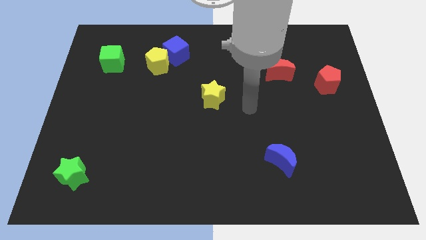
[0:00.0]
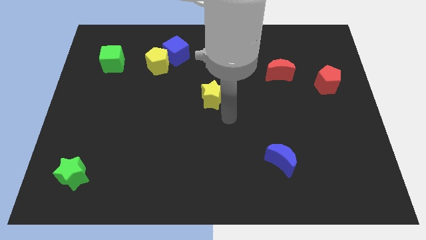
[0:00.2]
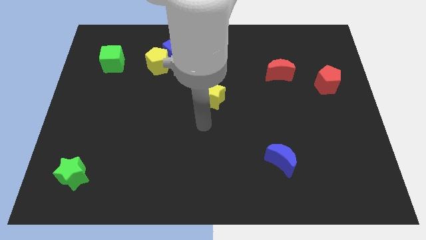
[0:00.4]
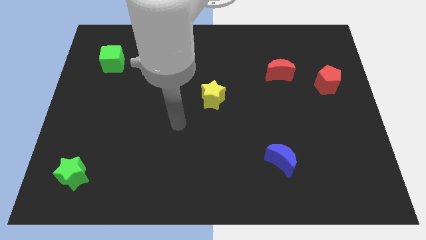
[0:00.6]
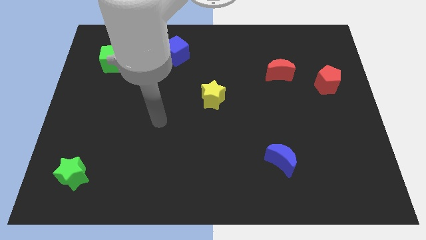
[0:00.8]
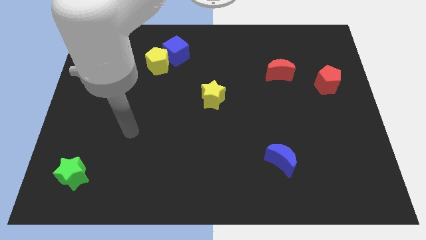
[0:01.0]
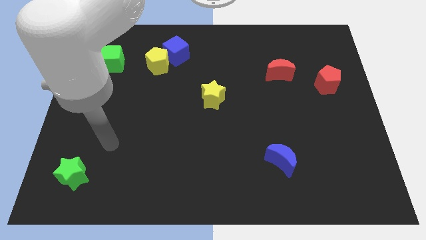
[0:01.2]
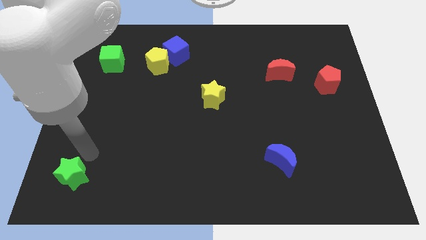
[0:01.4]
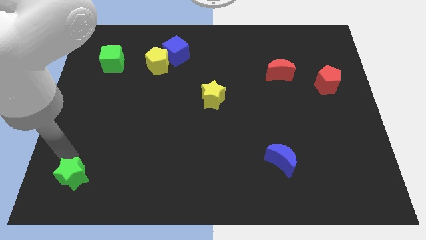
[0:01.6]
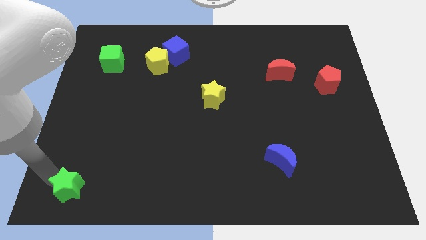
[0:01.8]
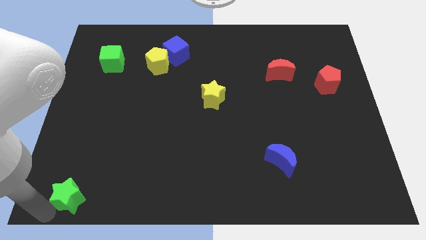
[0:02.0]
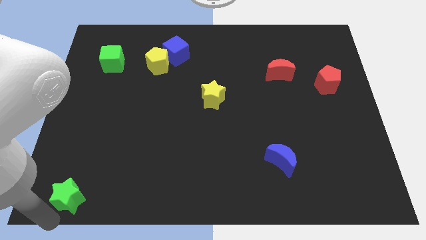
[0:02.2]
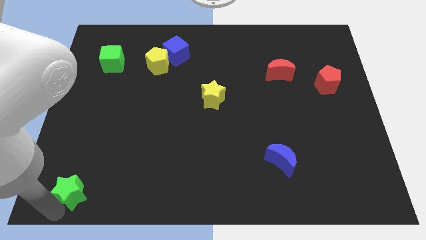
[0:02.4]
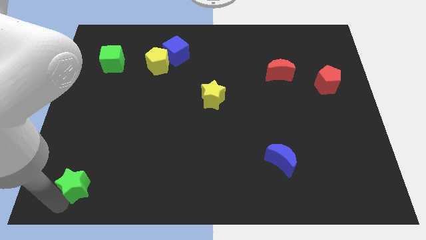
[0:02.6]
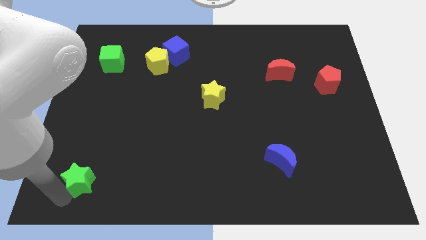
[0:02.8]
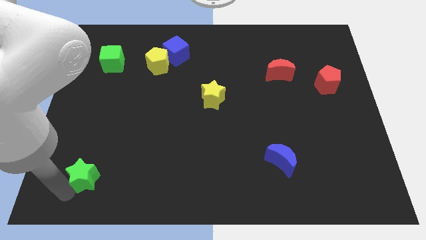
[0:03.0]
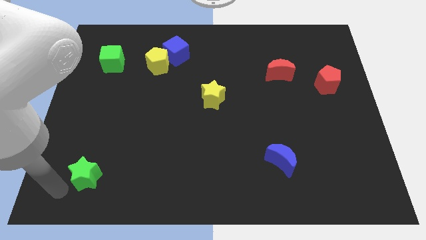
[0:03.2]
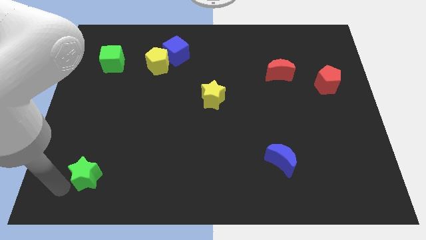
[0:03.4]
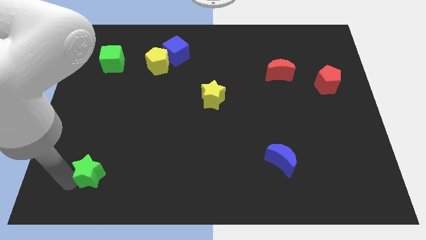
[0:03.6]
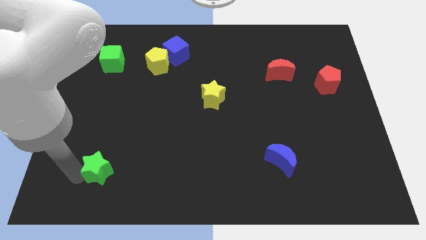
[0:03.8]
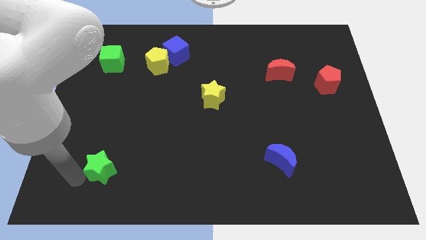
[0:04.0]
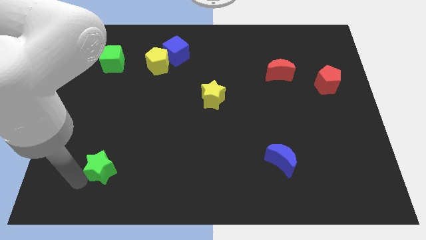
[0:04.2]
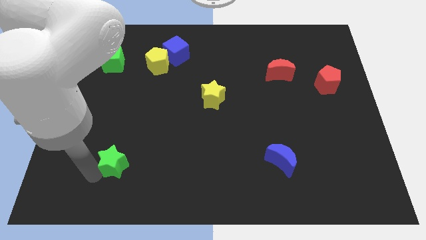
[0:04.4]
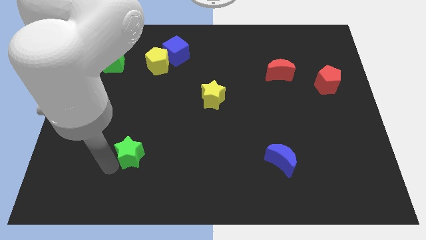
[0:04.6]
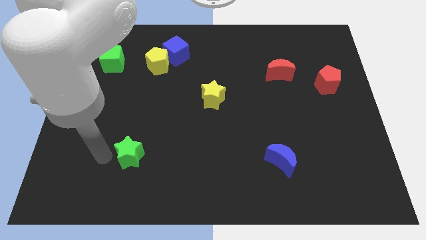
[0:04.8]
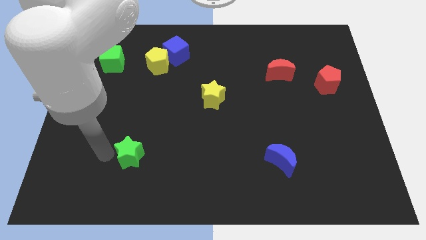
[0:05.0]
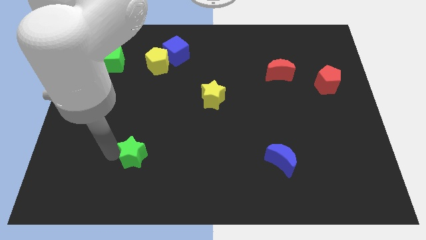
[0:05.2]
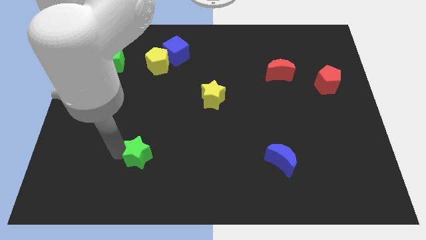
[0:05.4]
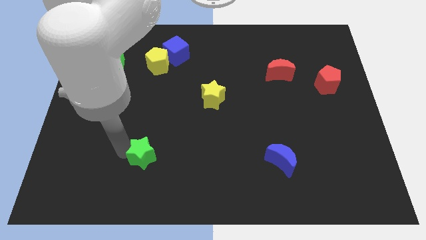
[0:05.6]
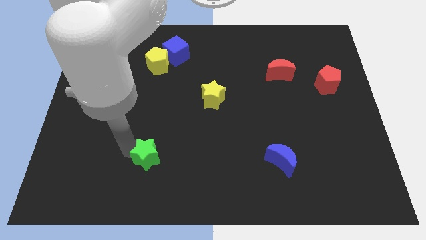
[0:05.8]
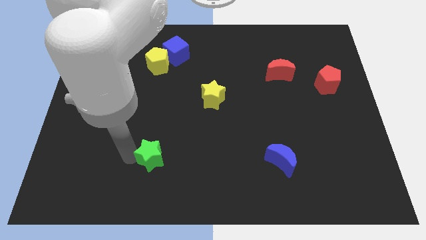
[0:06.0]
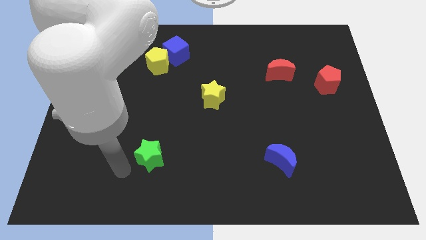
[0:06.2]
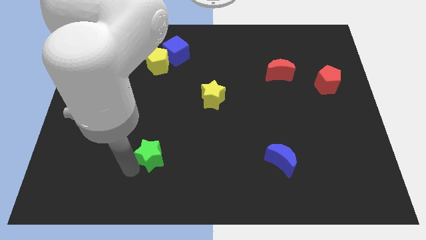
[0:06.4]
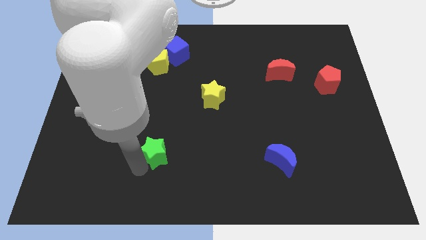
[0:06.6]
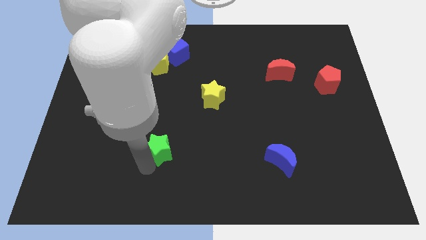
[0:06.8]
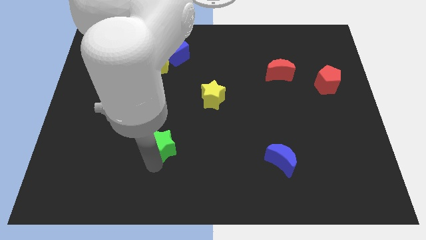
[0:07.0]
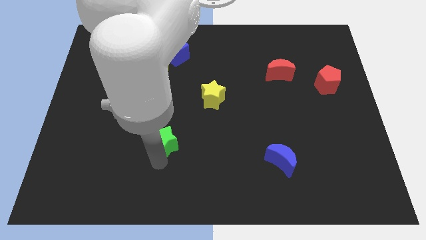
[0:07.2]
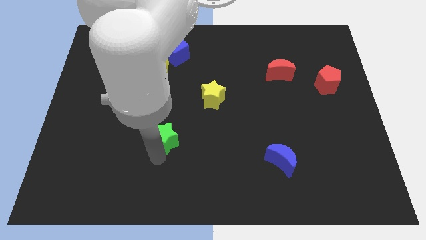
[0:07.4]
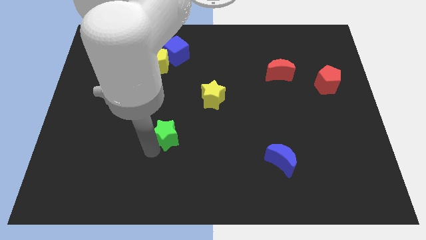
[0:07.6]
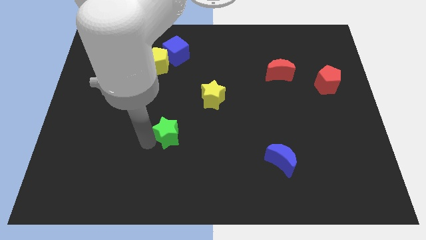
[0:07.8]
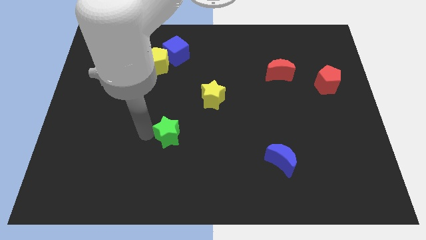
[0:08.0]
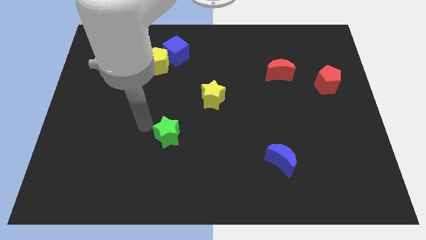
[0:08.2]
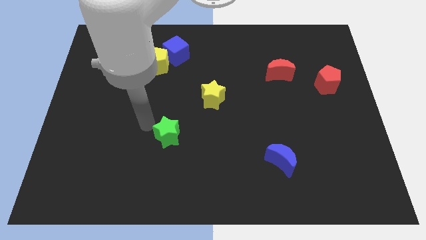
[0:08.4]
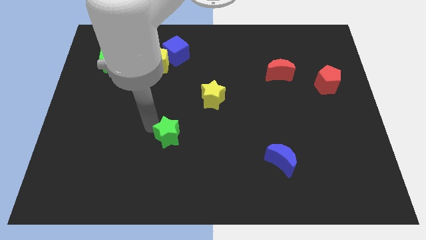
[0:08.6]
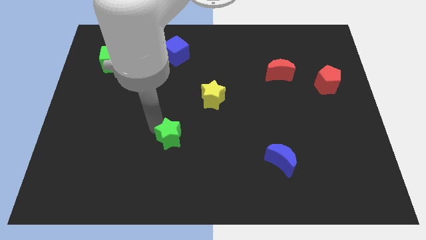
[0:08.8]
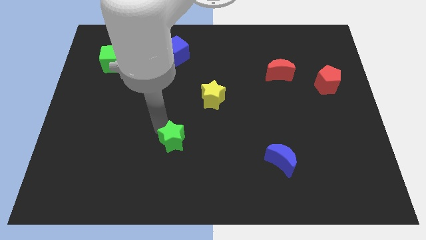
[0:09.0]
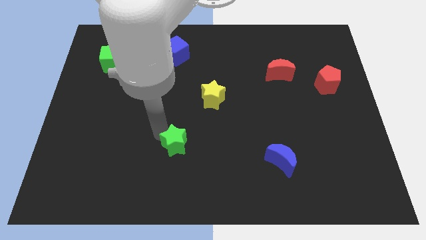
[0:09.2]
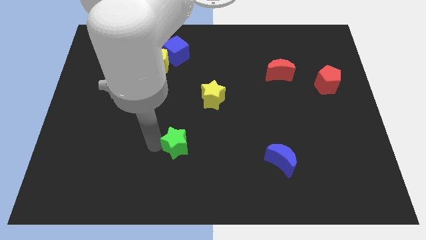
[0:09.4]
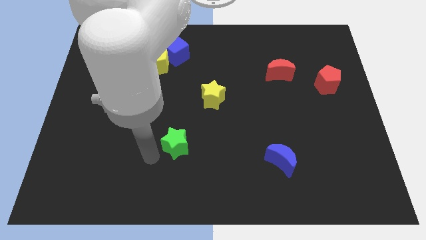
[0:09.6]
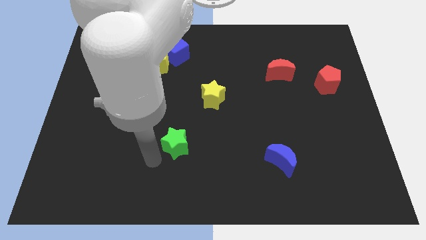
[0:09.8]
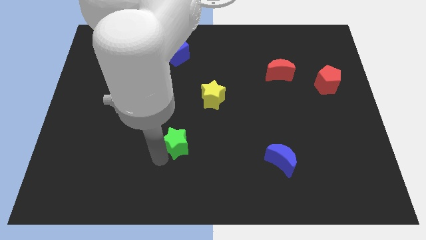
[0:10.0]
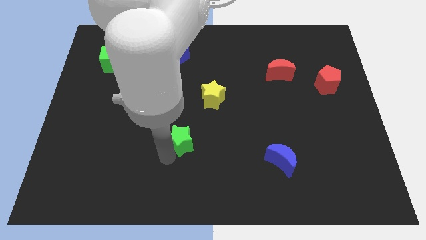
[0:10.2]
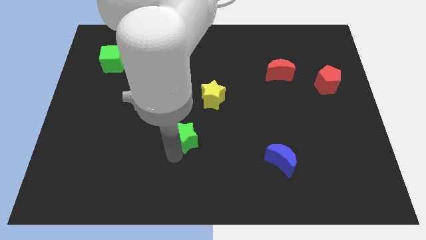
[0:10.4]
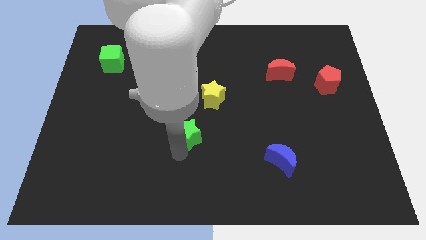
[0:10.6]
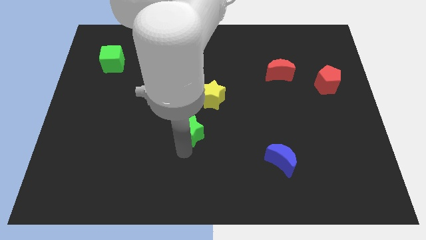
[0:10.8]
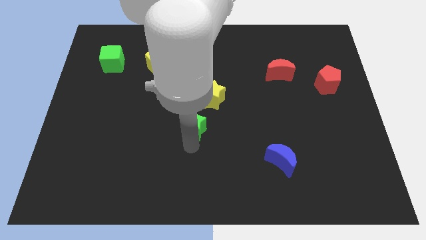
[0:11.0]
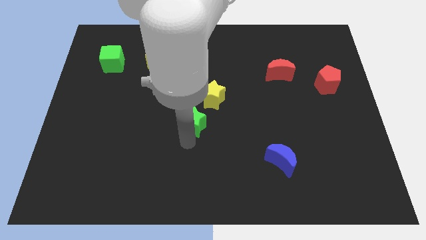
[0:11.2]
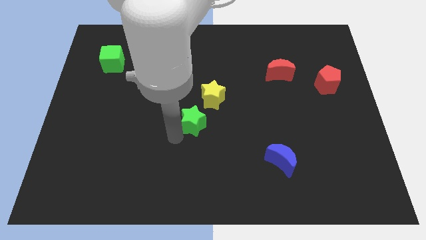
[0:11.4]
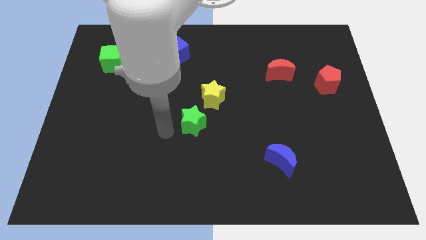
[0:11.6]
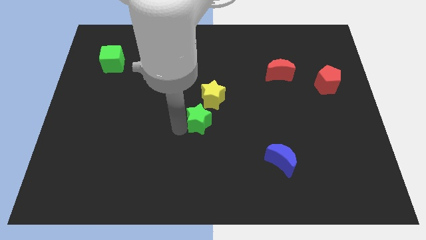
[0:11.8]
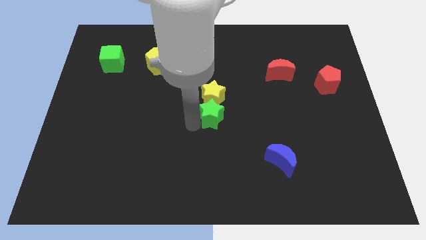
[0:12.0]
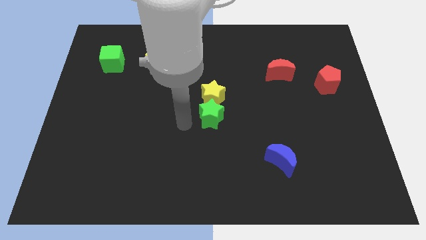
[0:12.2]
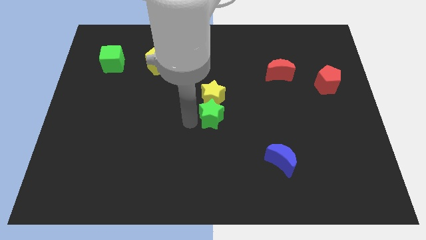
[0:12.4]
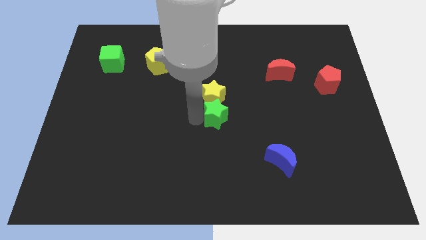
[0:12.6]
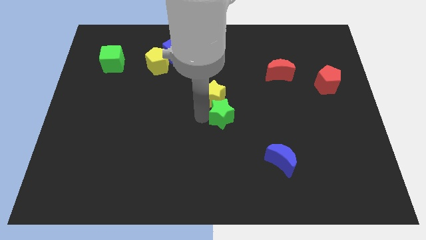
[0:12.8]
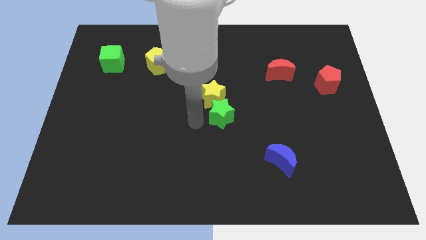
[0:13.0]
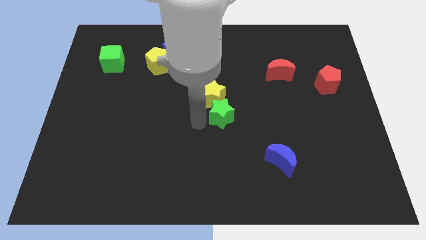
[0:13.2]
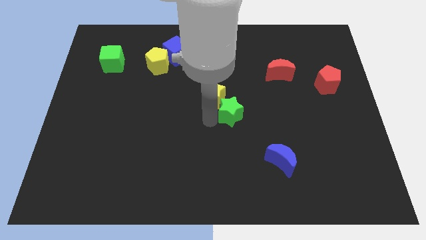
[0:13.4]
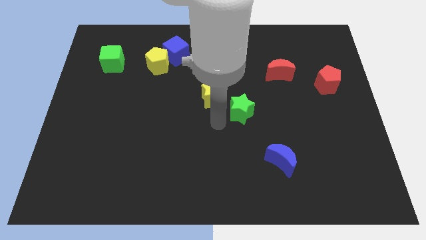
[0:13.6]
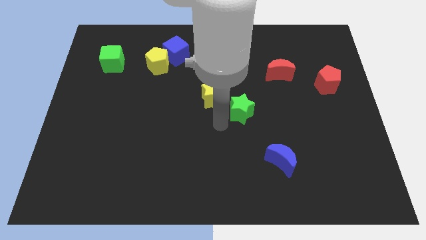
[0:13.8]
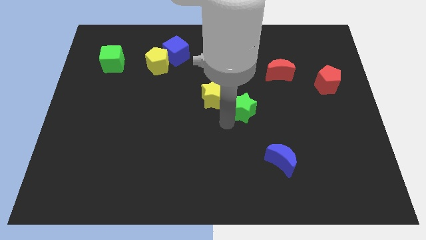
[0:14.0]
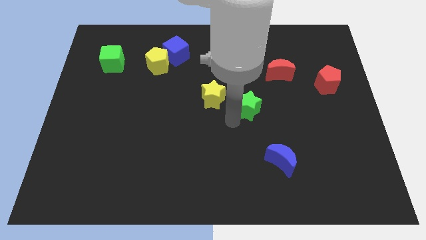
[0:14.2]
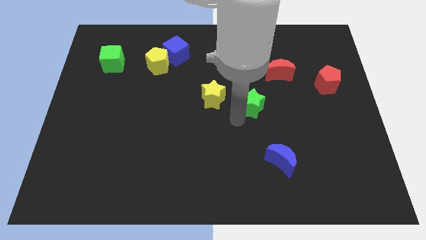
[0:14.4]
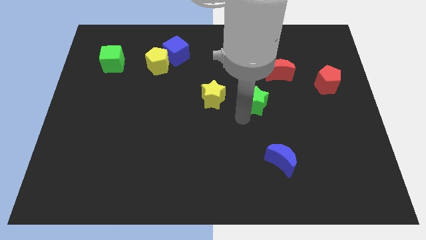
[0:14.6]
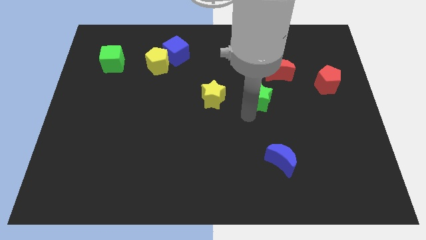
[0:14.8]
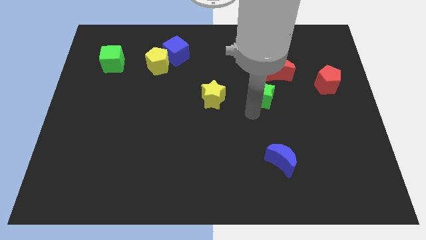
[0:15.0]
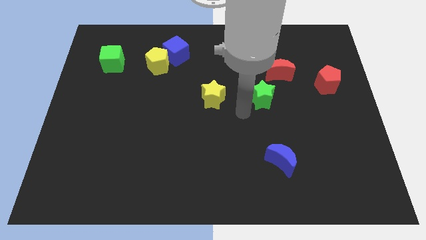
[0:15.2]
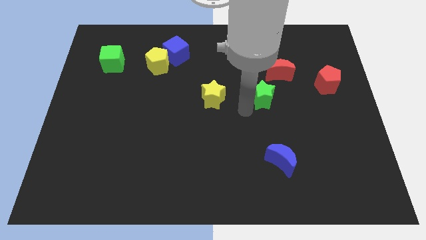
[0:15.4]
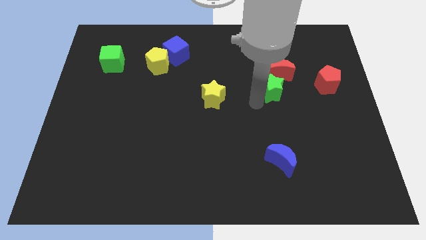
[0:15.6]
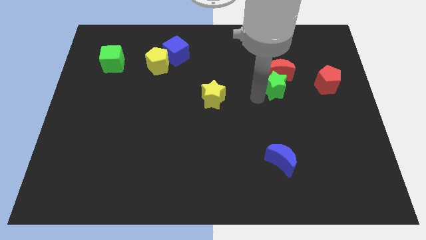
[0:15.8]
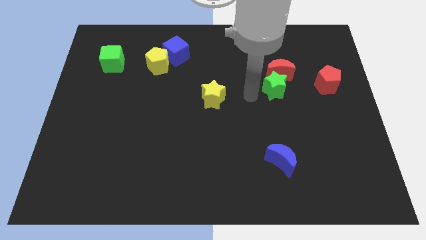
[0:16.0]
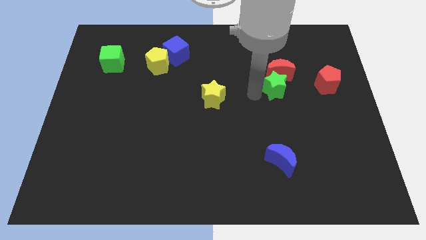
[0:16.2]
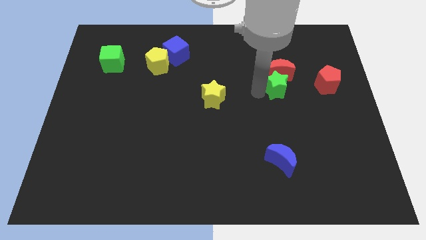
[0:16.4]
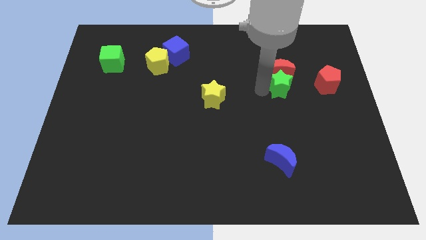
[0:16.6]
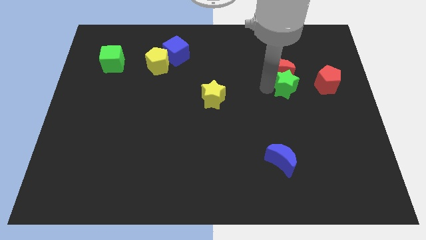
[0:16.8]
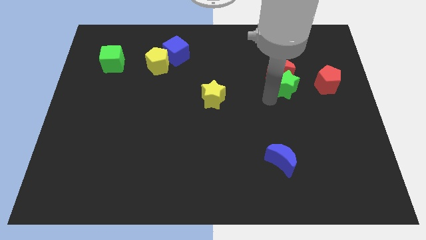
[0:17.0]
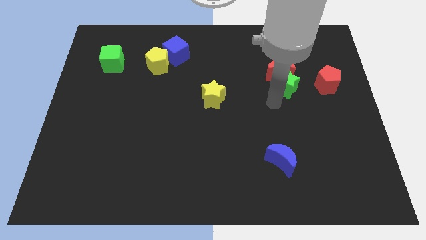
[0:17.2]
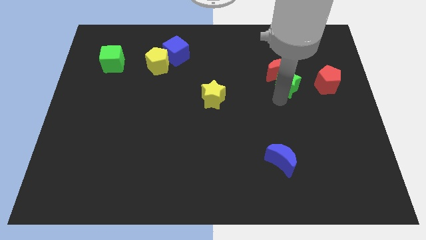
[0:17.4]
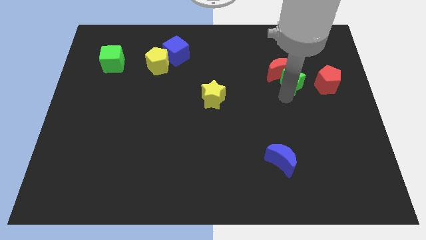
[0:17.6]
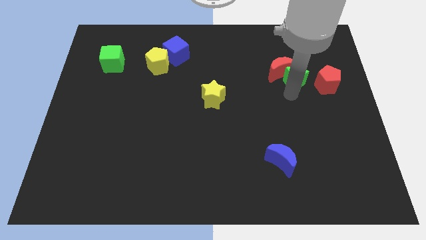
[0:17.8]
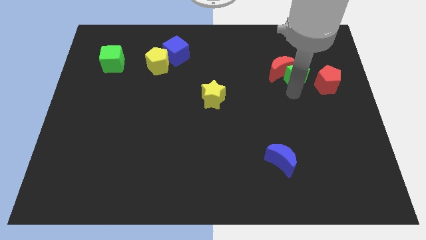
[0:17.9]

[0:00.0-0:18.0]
put the green star to the top left side of the red pentagon
